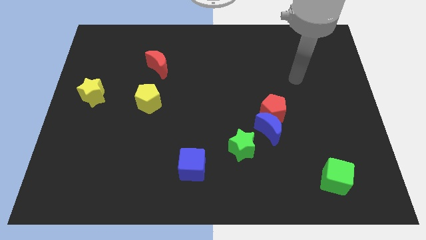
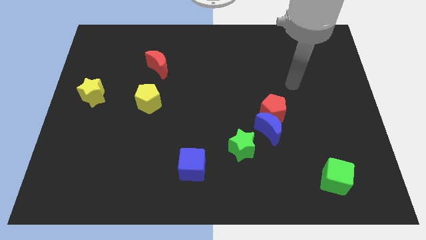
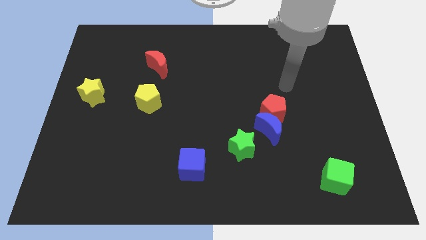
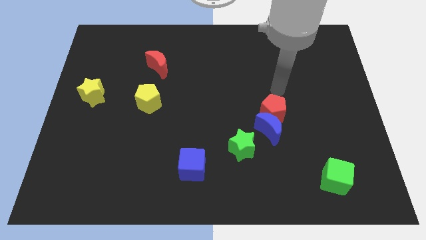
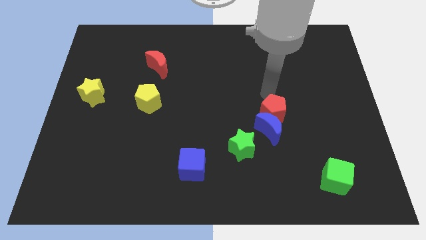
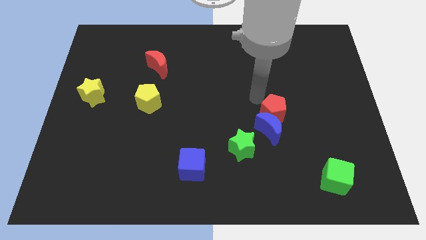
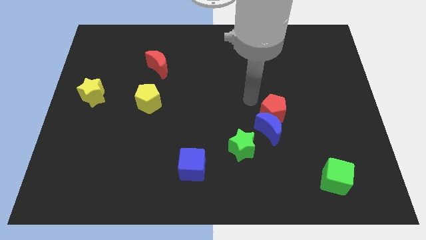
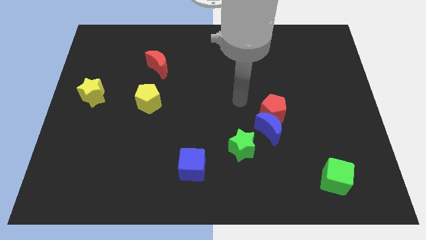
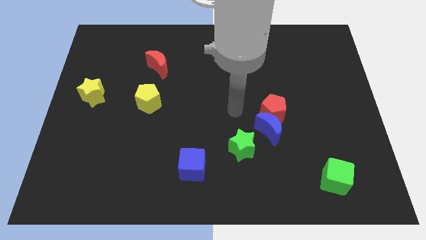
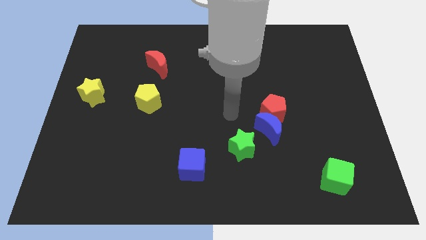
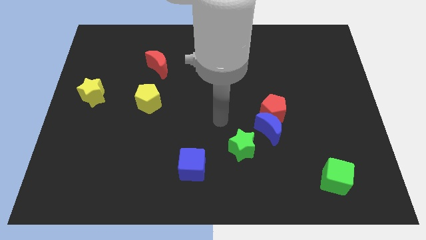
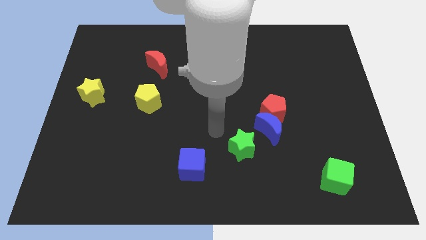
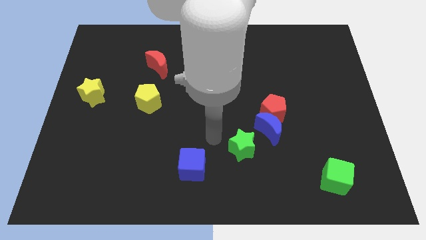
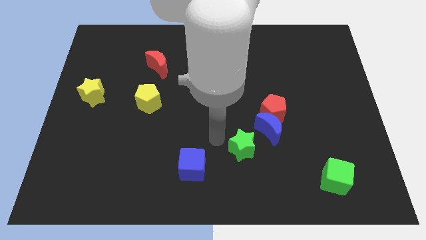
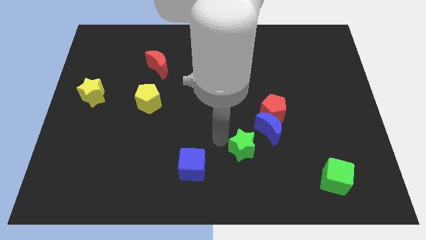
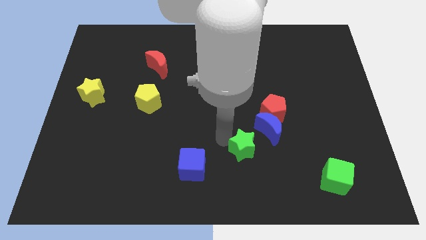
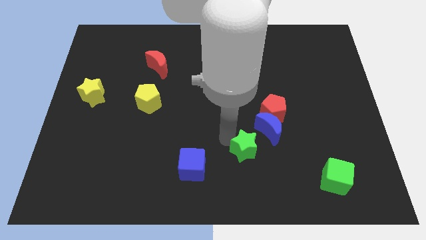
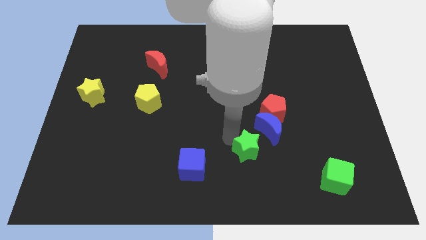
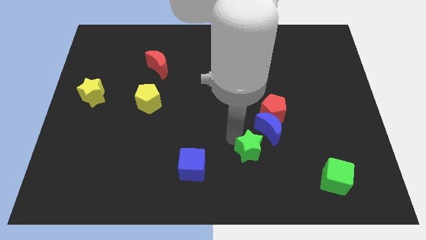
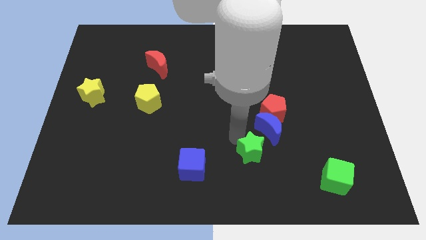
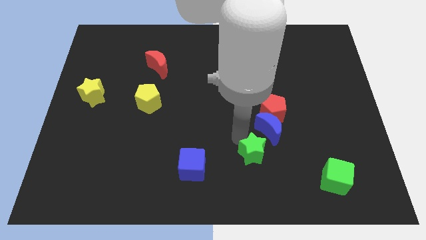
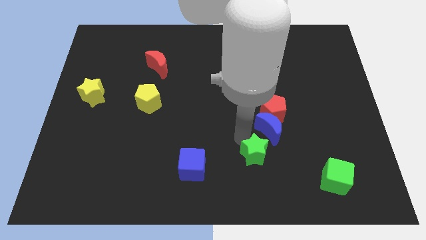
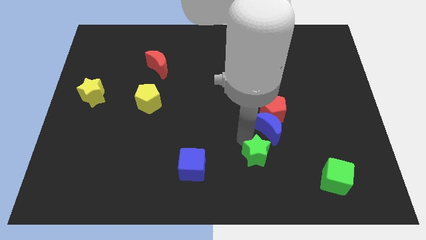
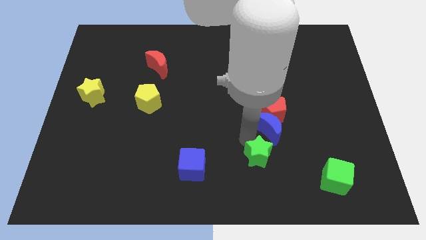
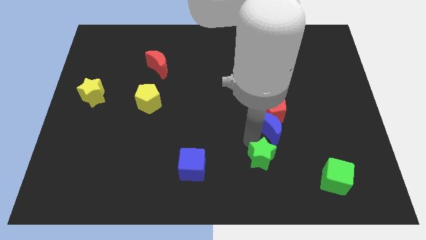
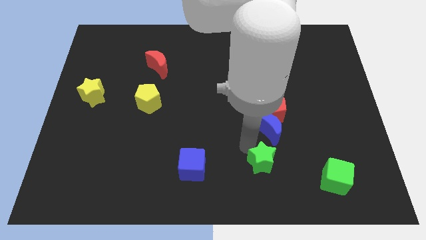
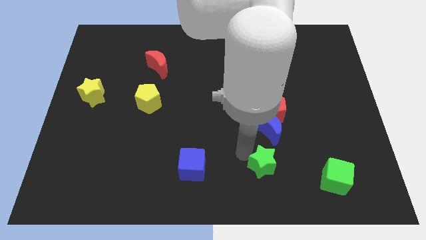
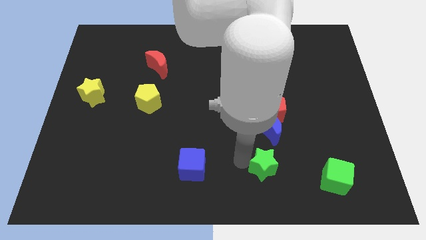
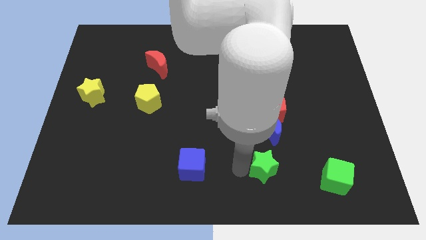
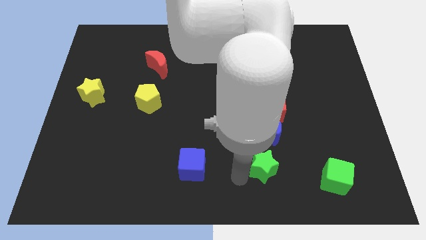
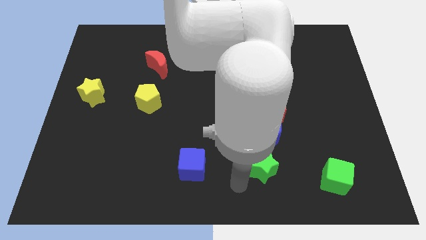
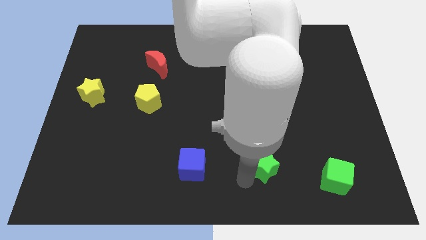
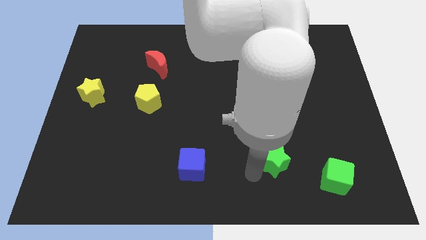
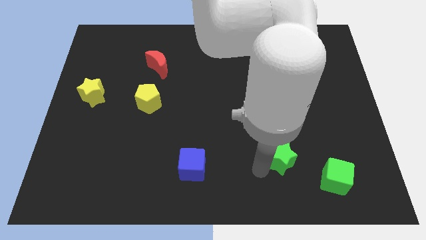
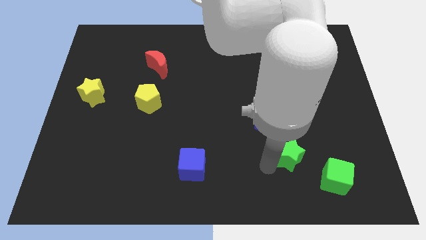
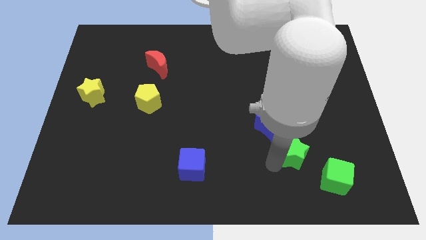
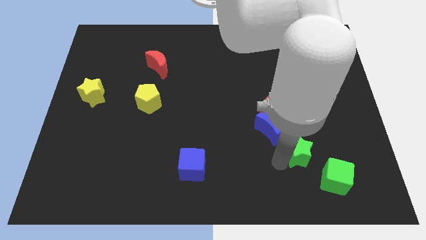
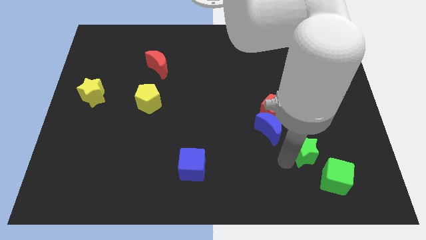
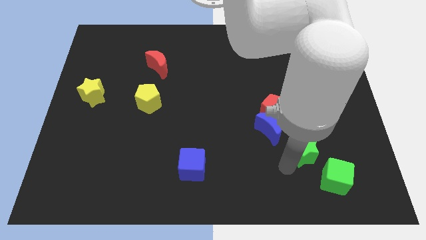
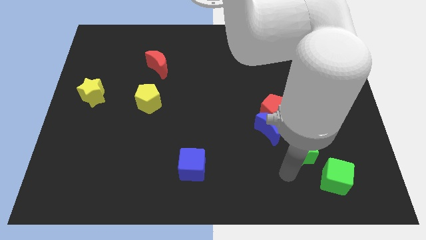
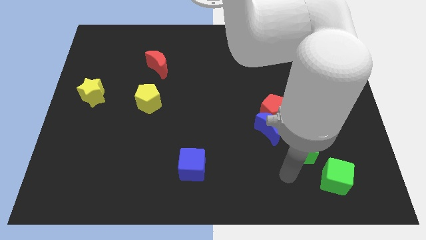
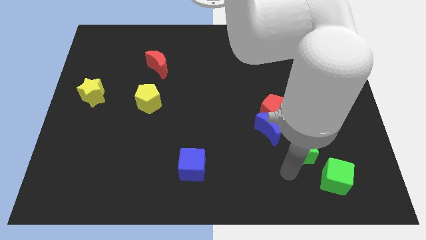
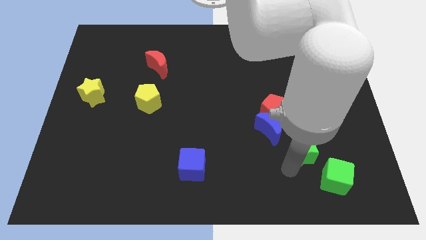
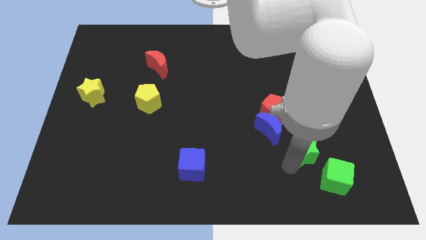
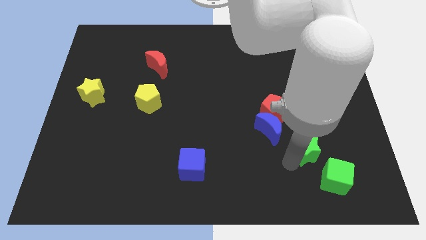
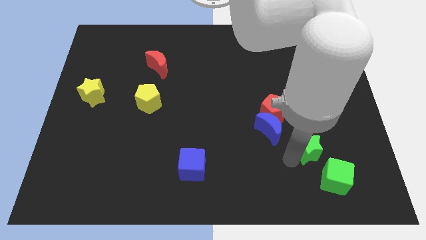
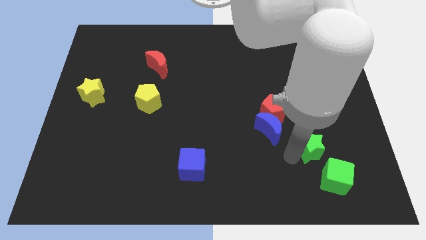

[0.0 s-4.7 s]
put the green star to the right of the blue moon

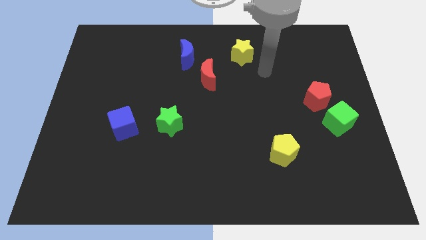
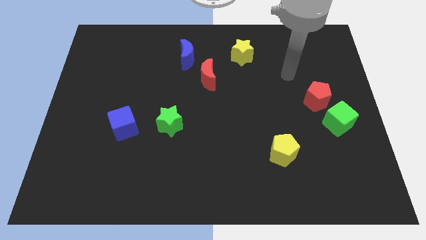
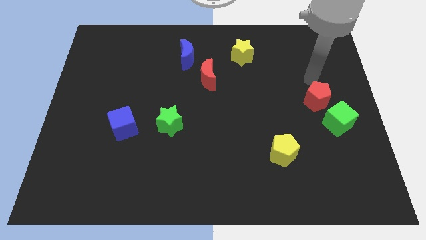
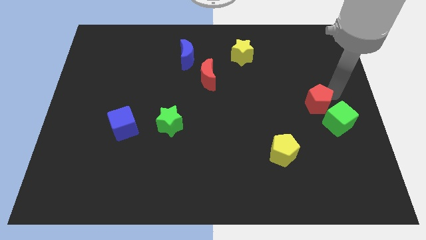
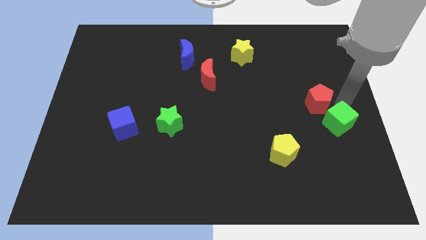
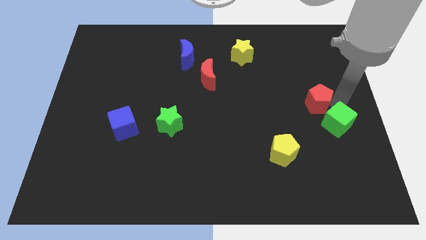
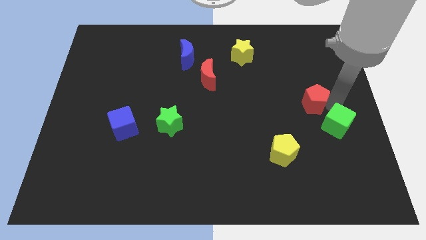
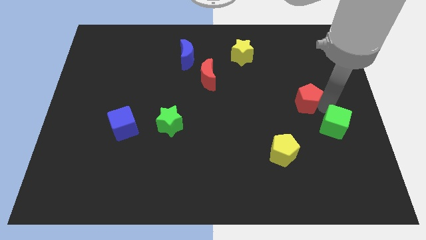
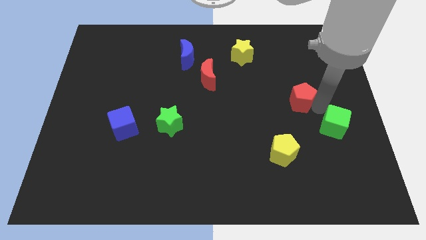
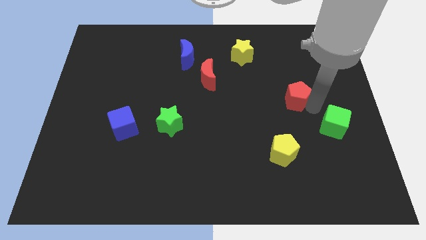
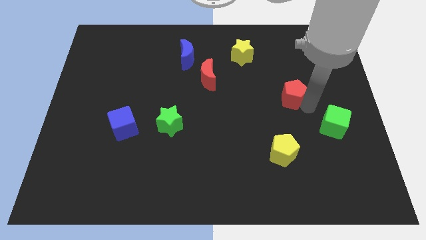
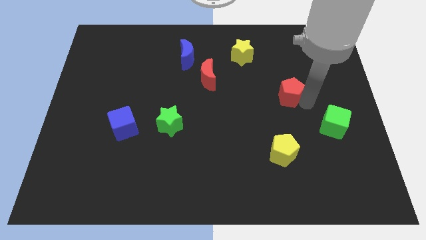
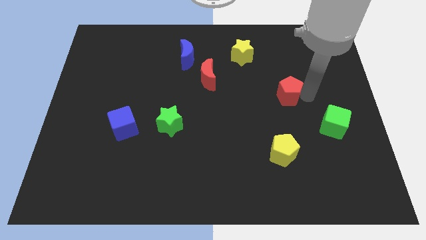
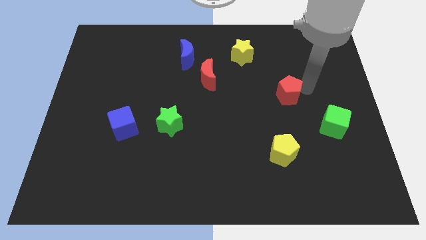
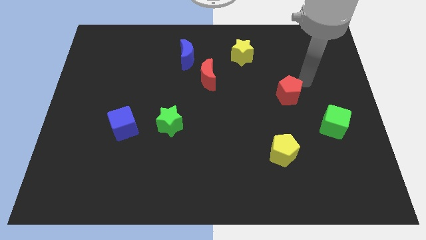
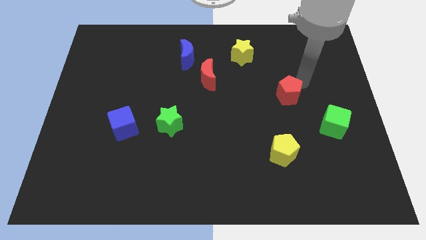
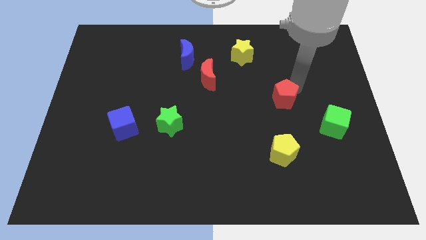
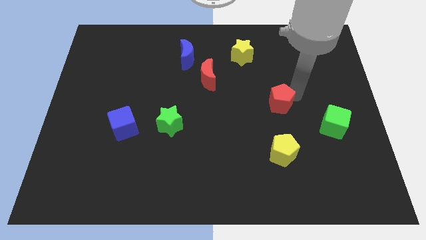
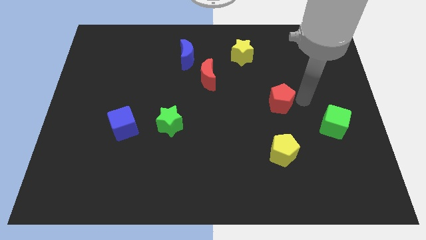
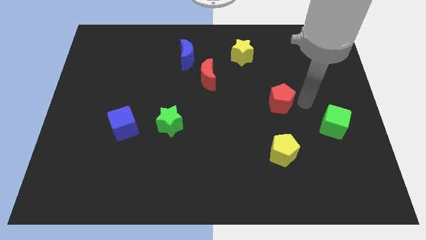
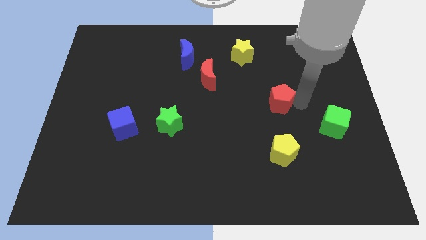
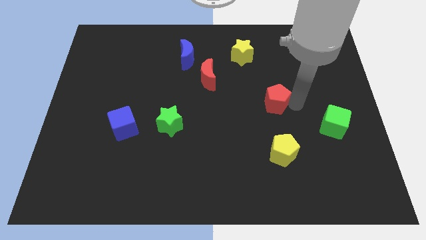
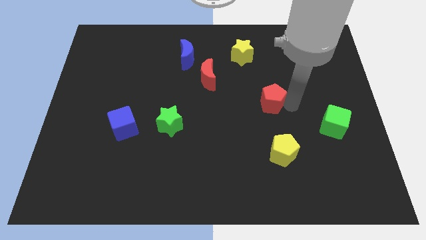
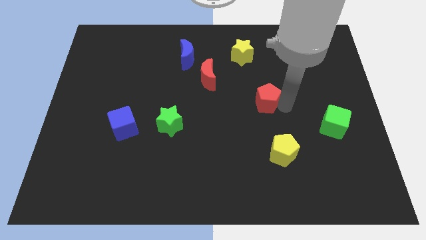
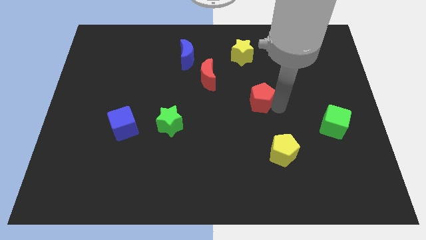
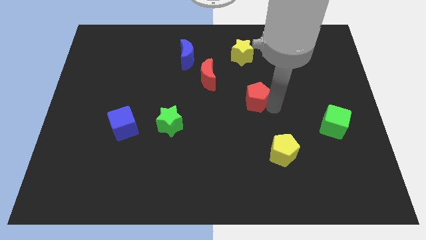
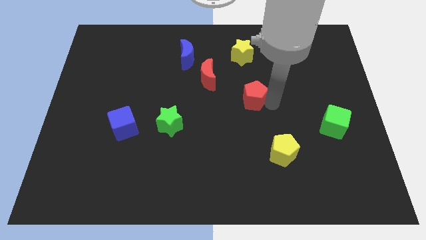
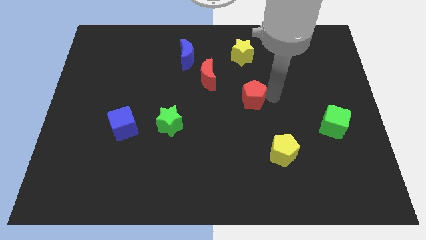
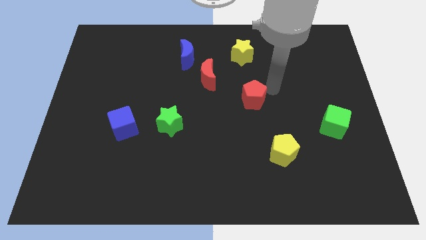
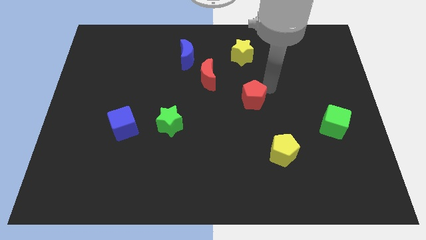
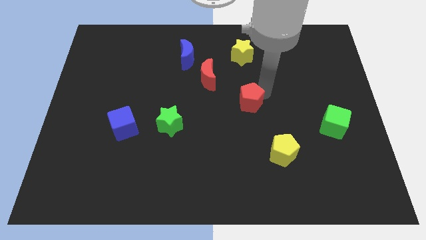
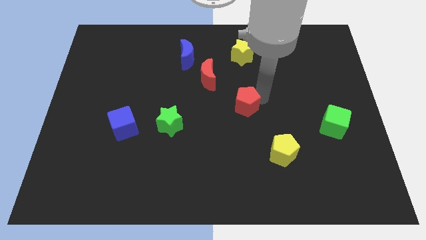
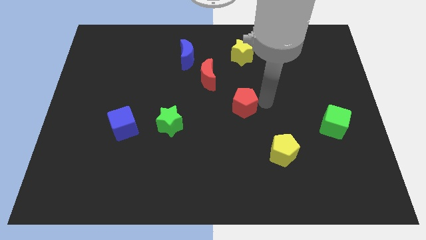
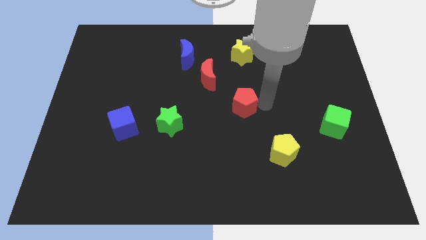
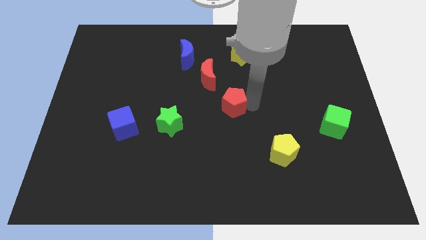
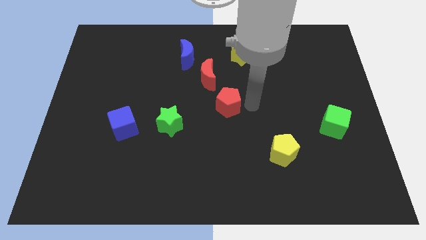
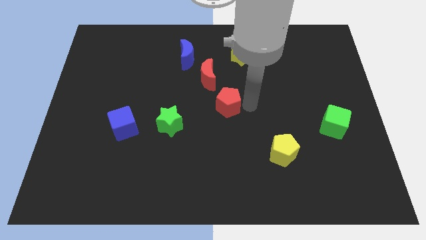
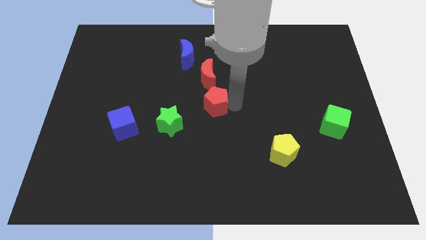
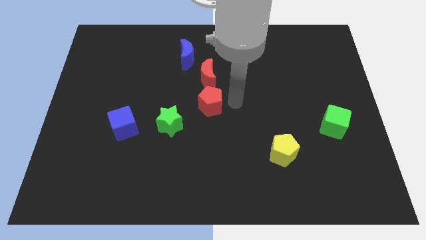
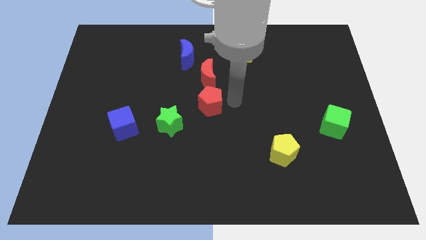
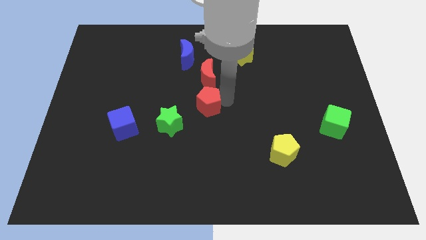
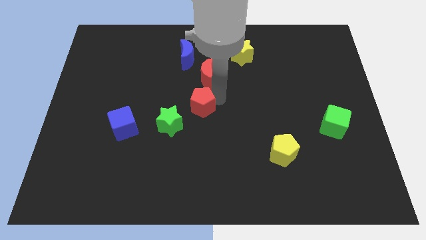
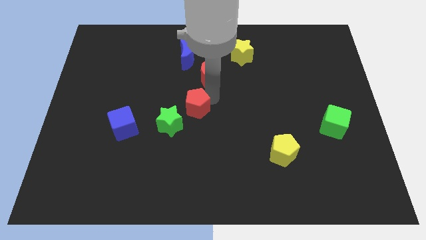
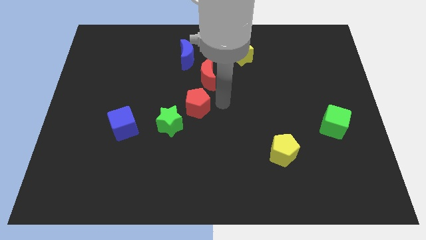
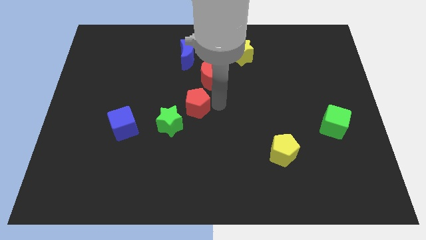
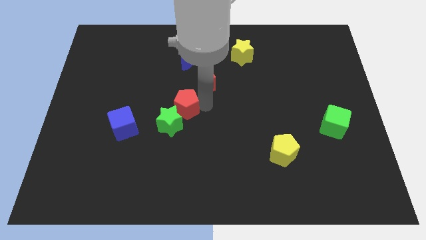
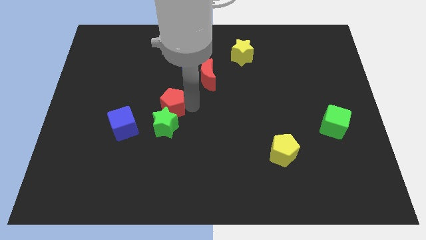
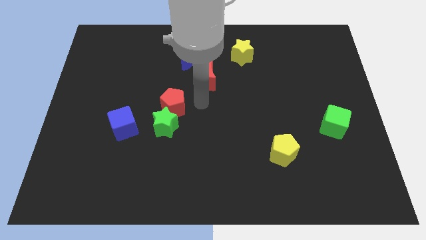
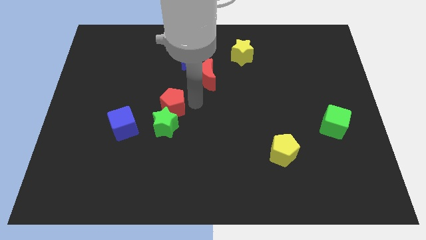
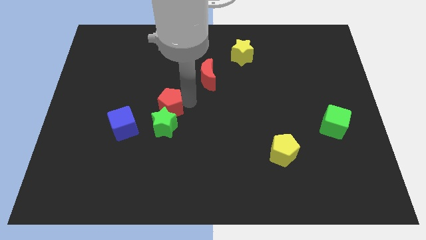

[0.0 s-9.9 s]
move the red pentagon diagonally up and to the right of the blue cube
